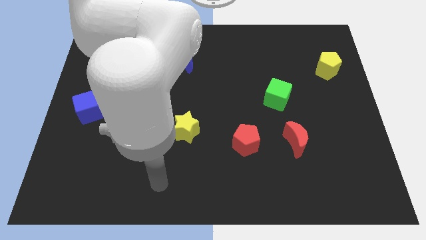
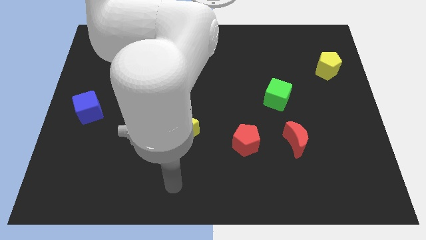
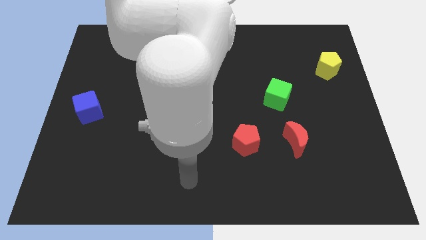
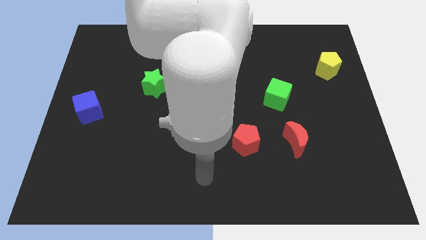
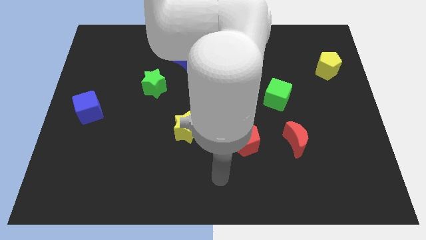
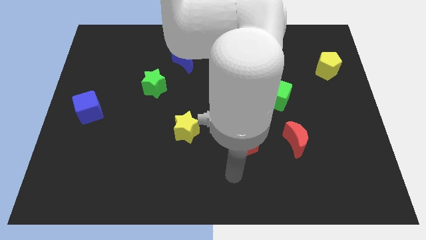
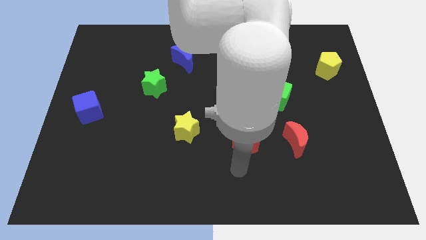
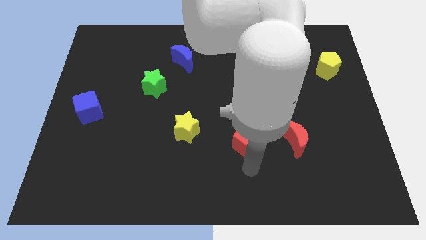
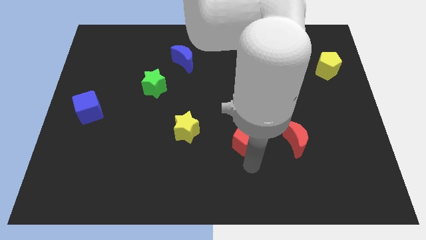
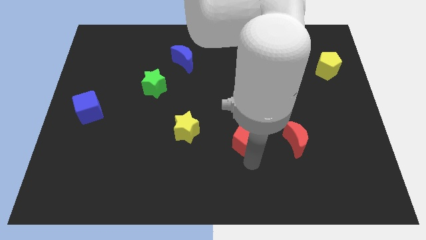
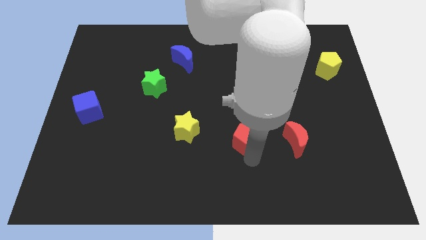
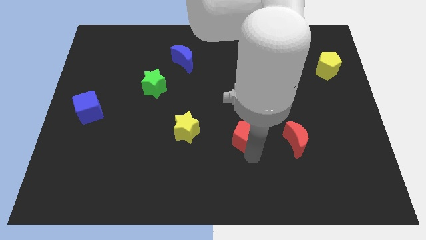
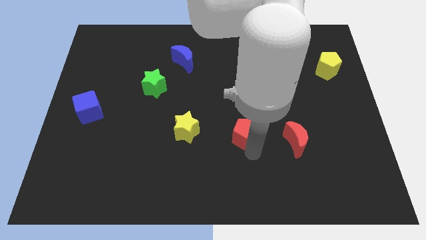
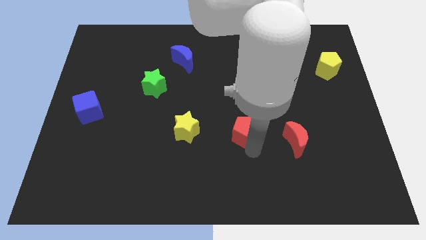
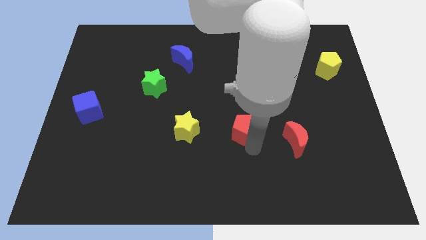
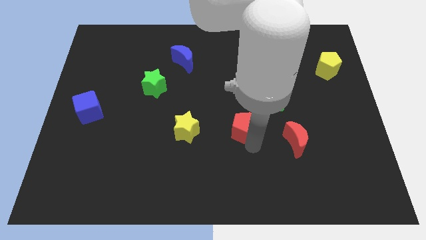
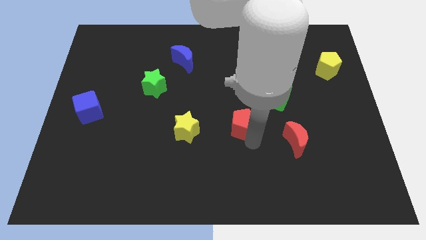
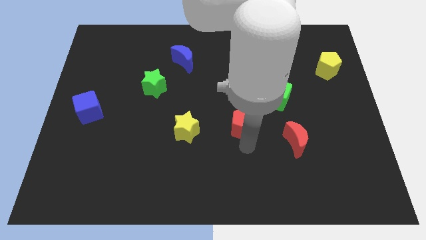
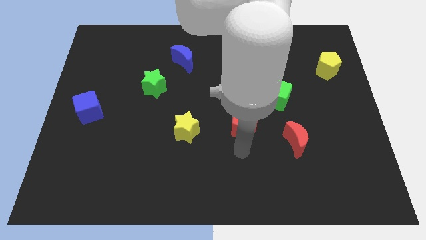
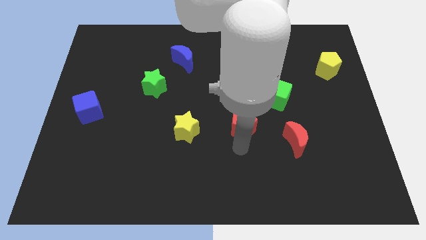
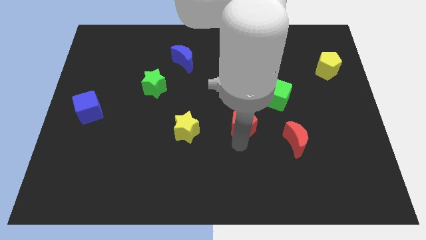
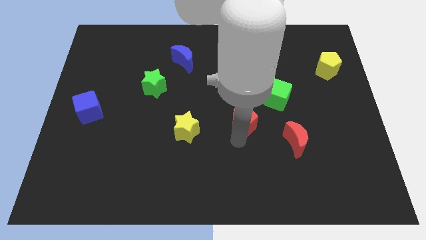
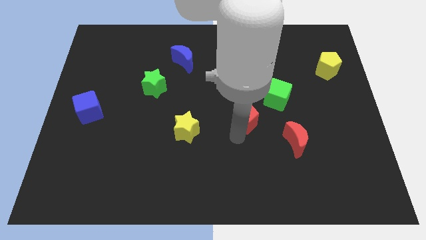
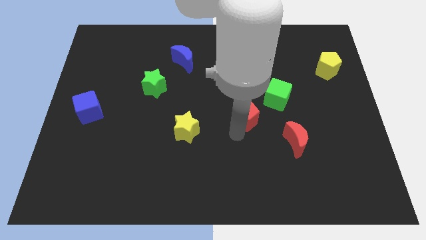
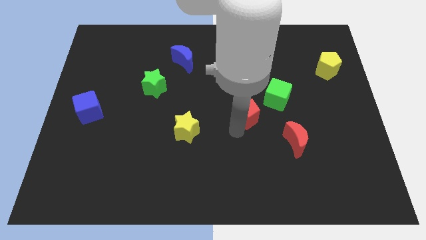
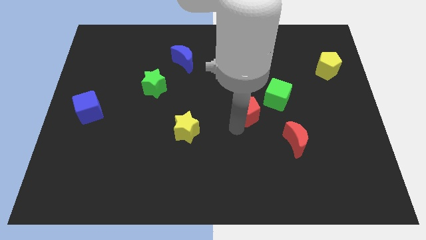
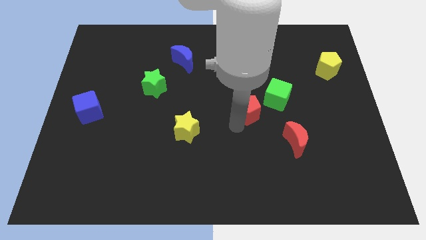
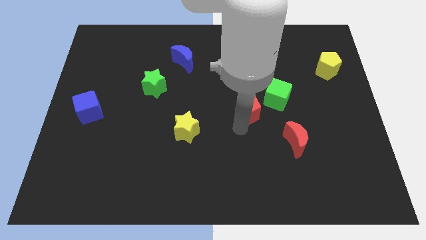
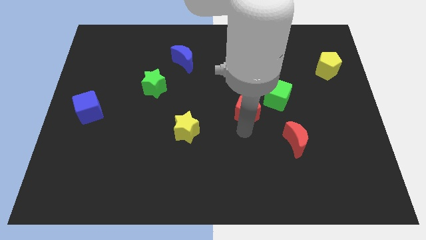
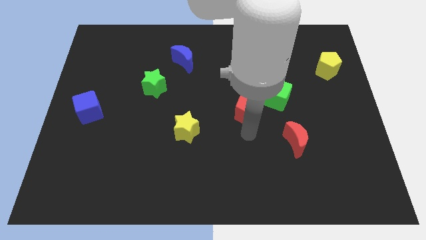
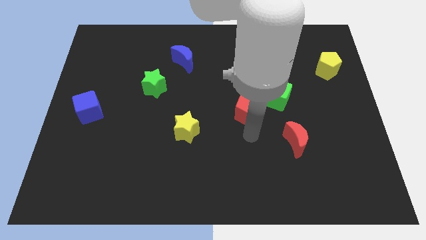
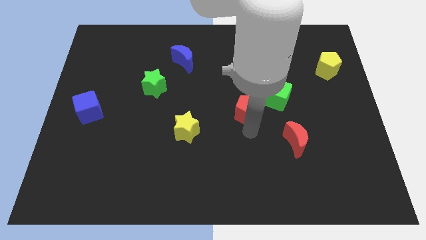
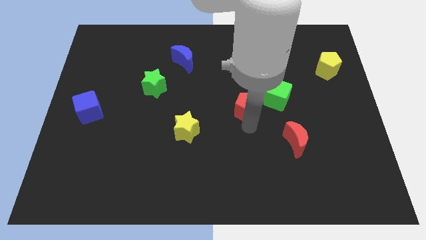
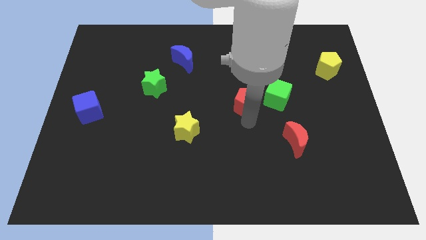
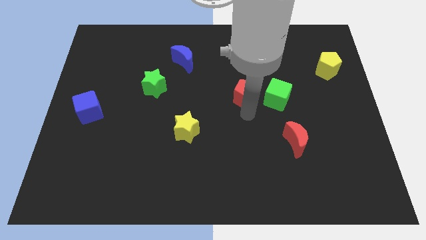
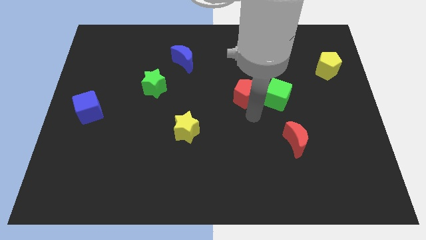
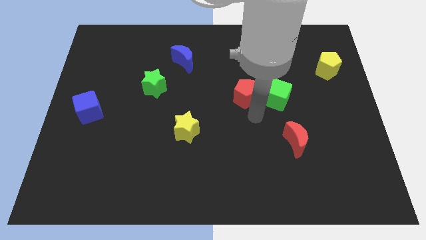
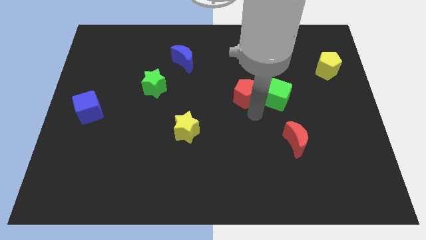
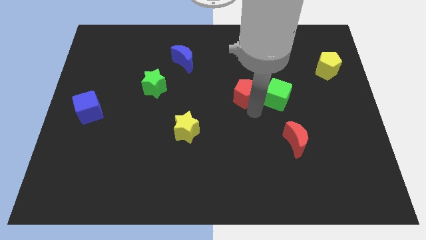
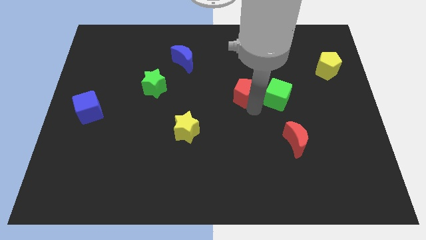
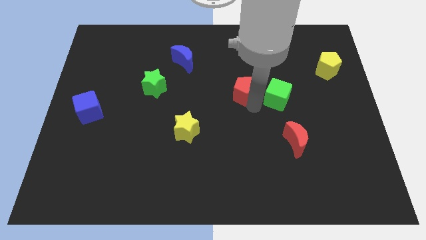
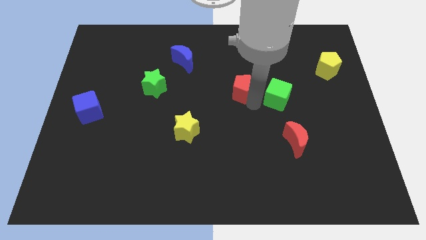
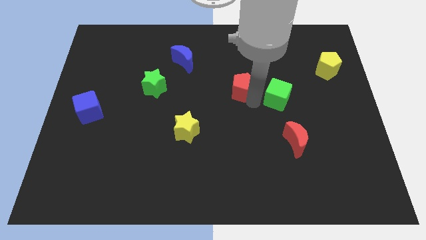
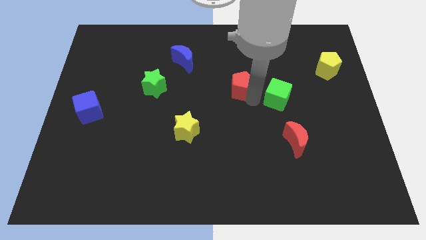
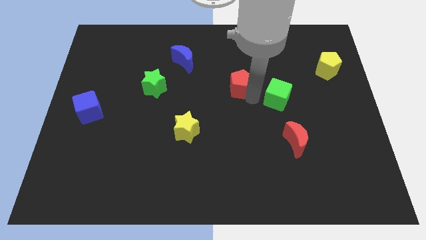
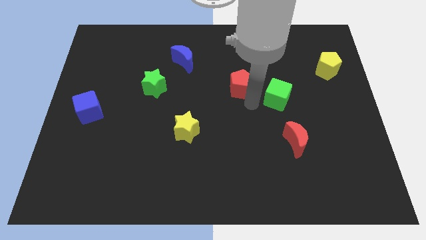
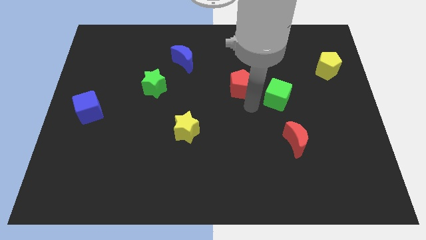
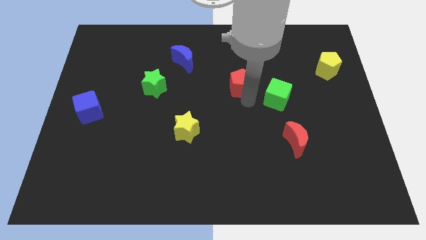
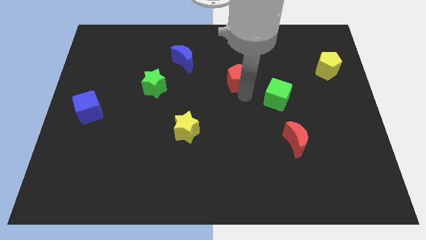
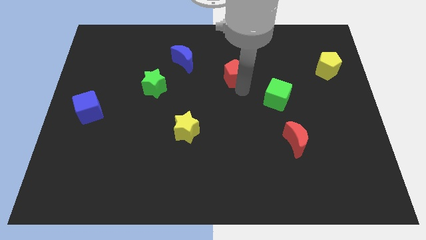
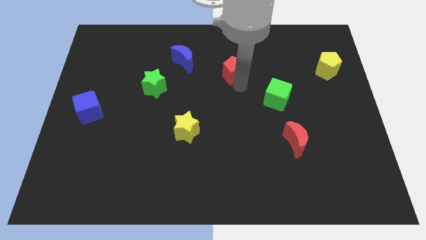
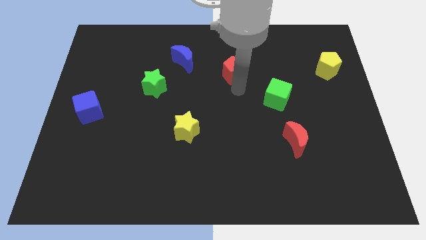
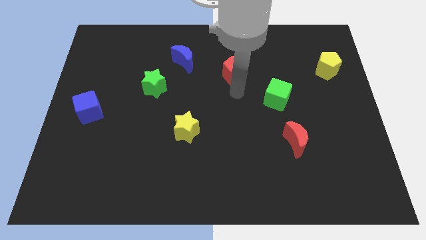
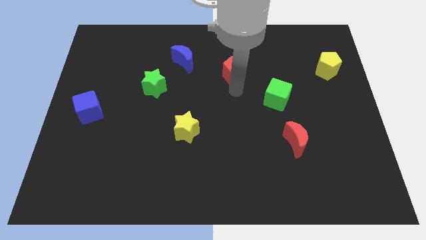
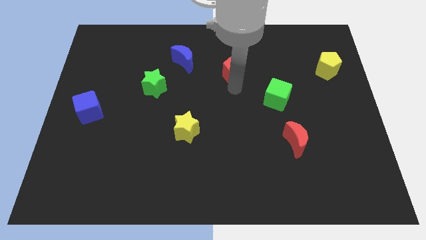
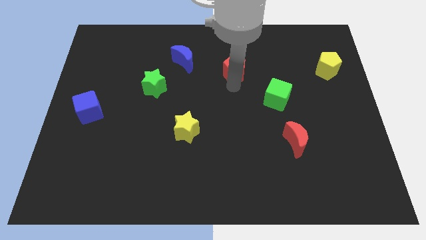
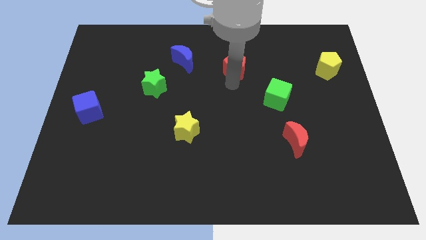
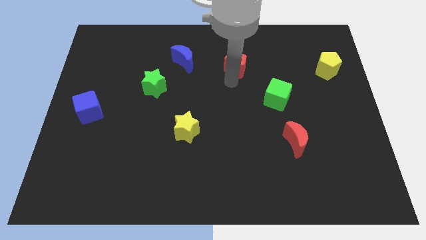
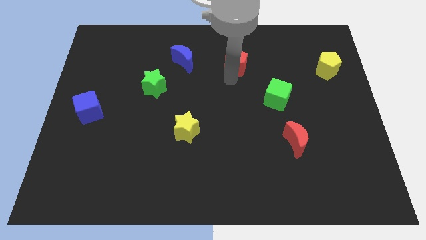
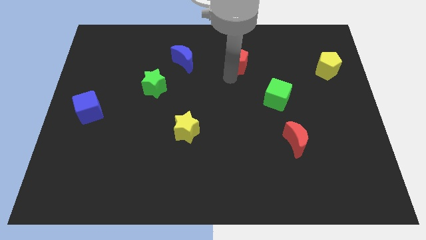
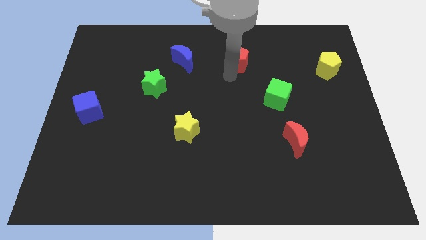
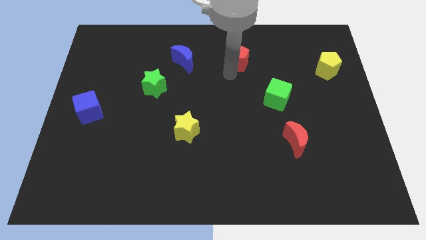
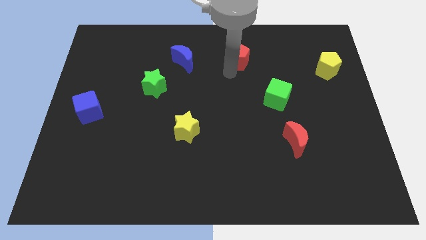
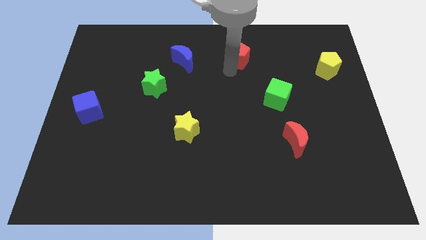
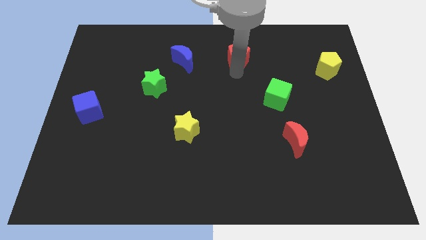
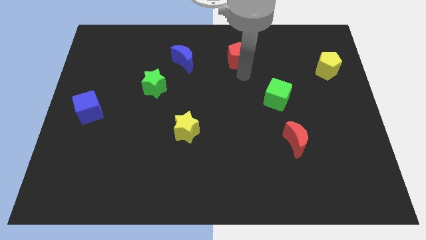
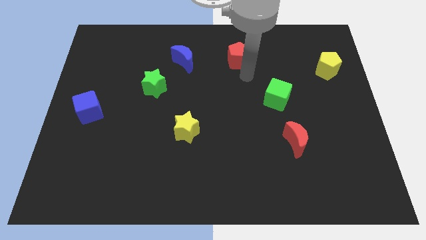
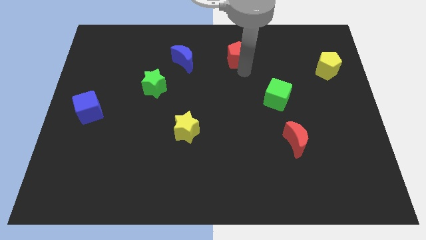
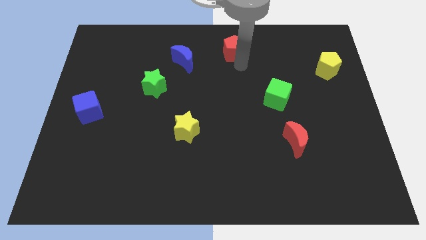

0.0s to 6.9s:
put the red pentagon to the top

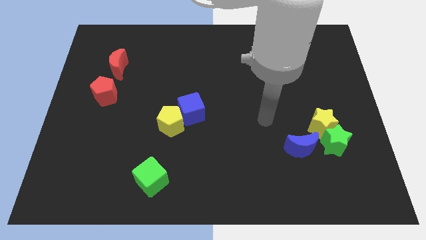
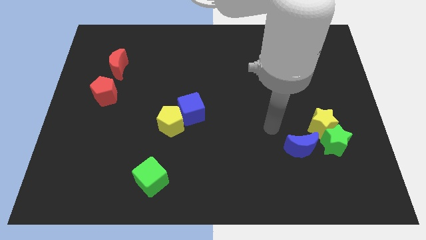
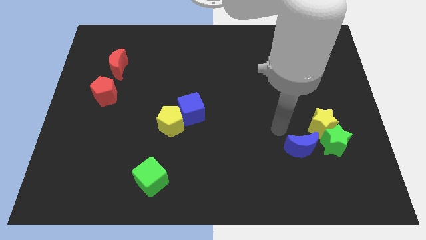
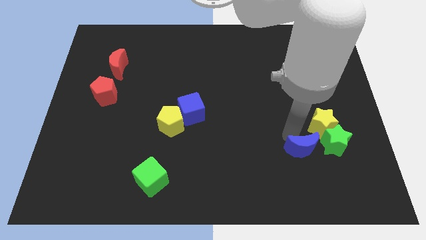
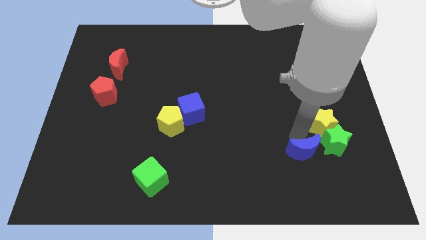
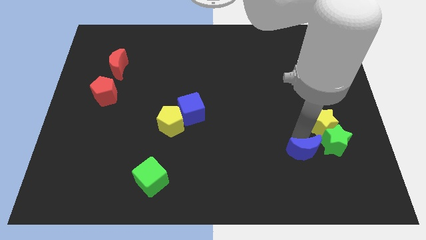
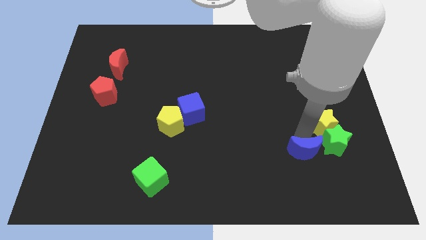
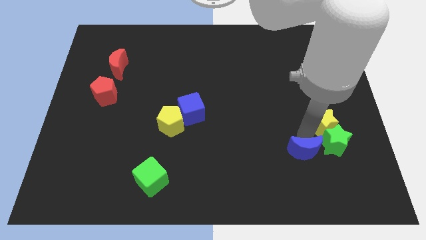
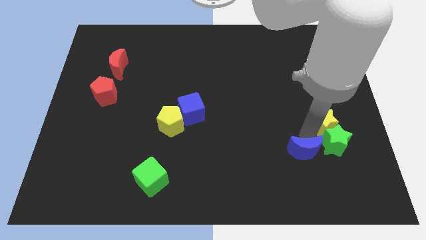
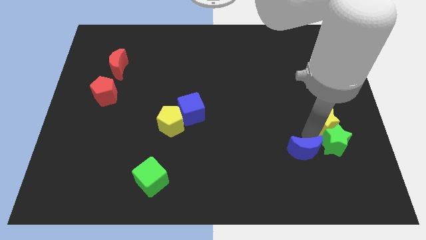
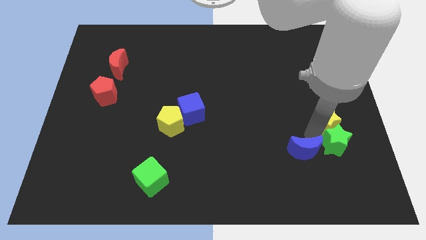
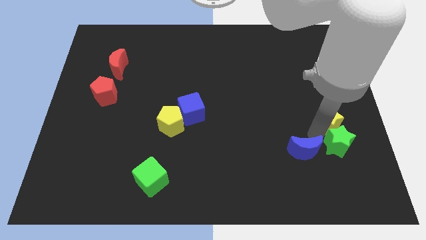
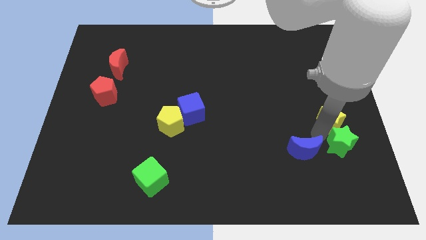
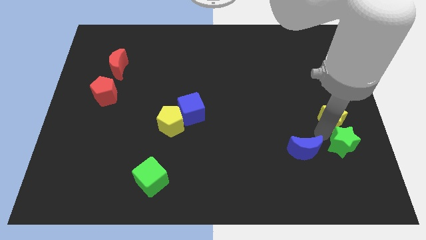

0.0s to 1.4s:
move the yellow star to the right side
